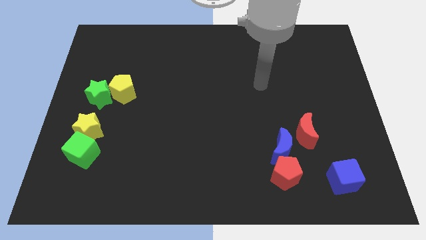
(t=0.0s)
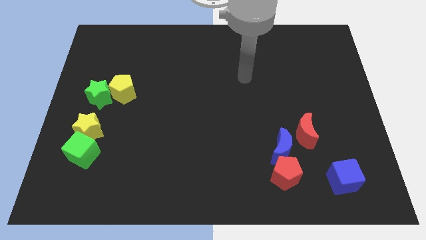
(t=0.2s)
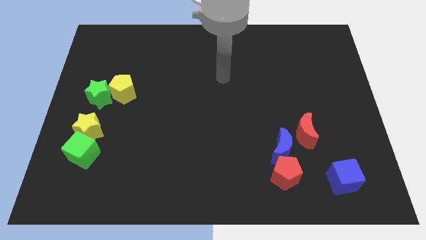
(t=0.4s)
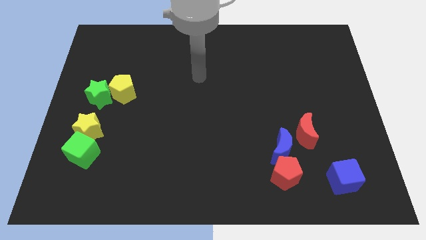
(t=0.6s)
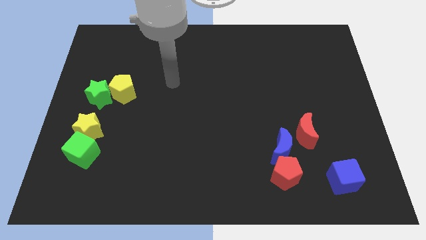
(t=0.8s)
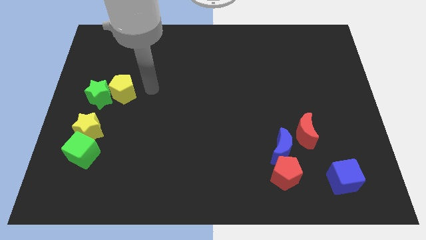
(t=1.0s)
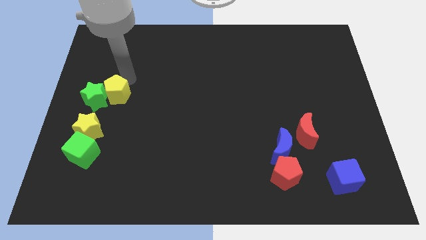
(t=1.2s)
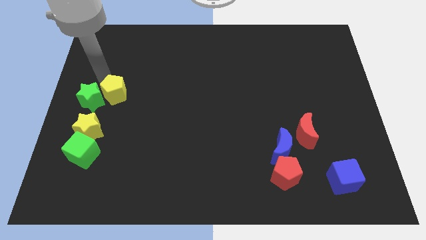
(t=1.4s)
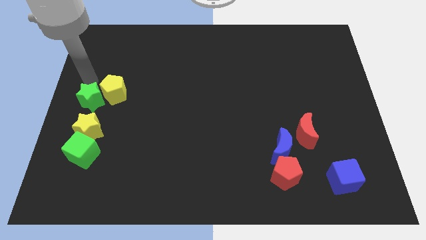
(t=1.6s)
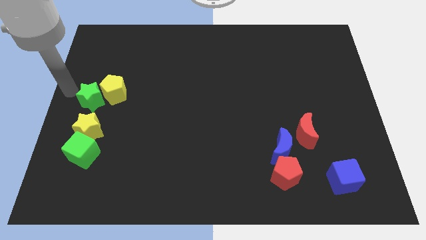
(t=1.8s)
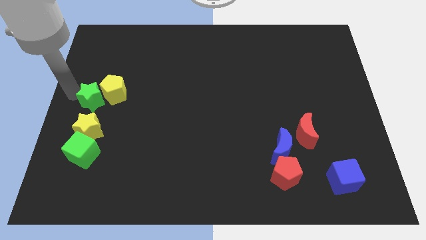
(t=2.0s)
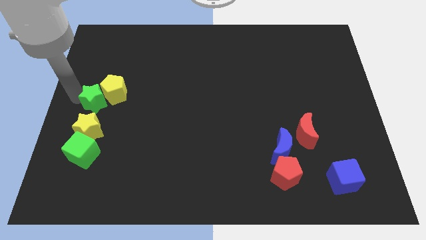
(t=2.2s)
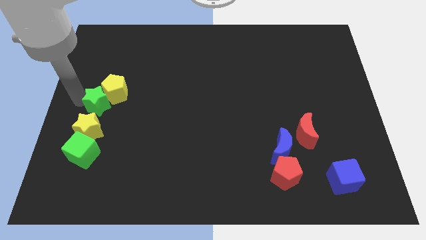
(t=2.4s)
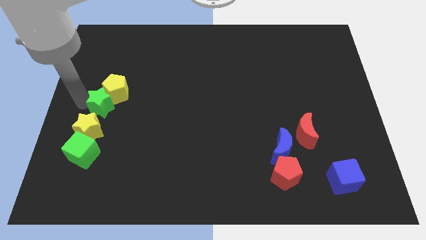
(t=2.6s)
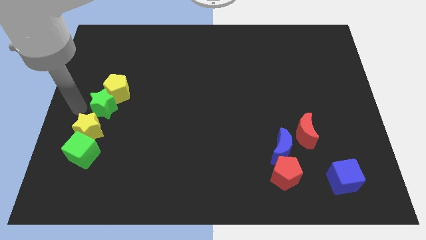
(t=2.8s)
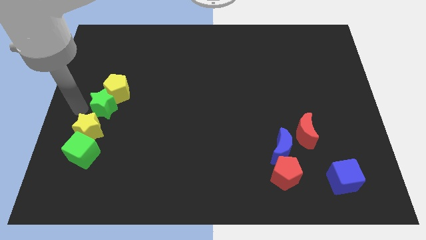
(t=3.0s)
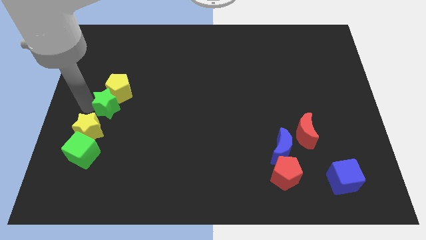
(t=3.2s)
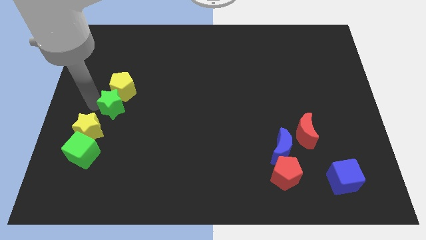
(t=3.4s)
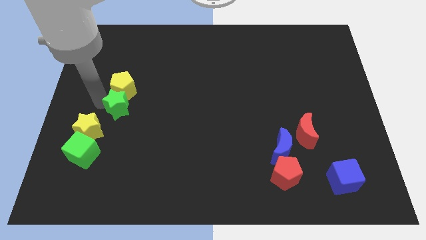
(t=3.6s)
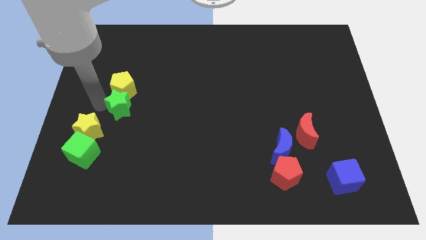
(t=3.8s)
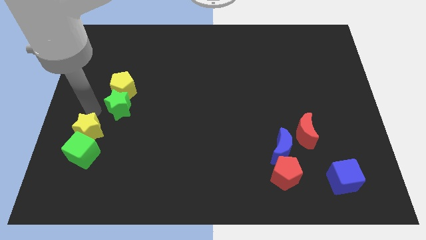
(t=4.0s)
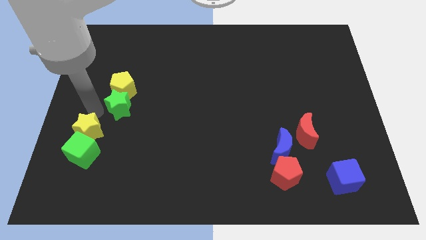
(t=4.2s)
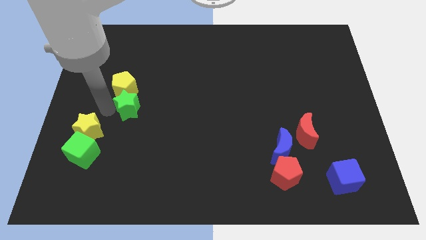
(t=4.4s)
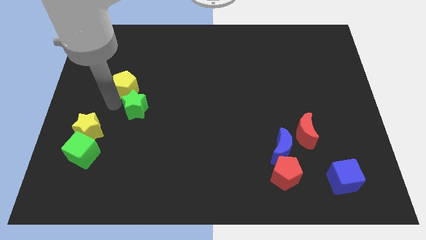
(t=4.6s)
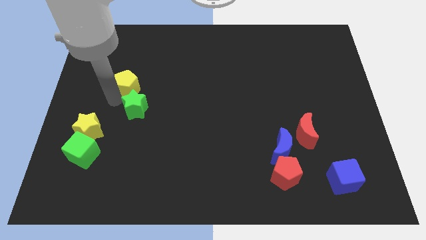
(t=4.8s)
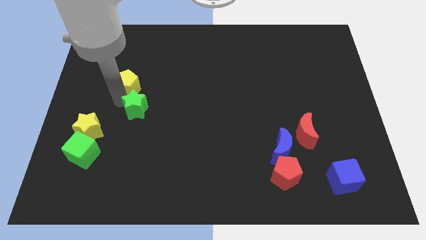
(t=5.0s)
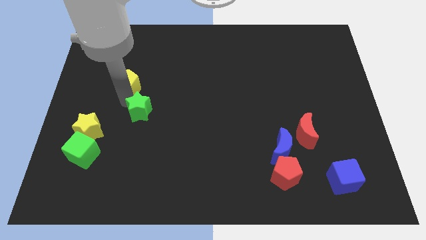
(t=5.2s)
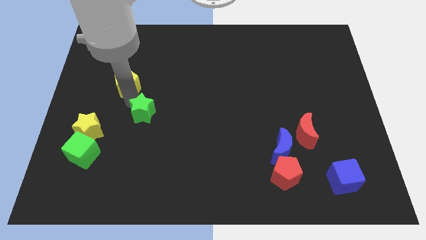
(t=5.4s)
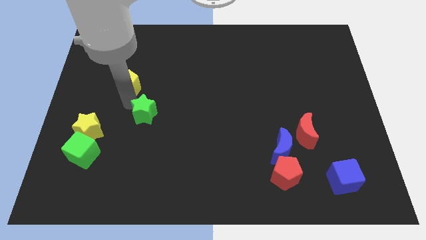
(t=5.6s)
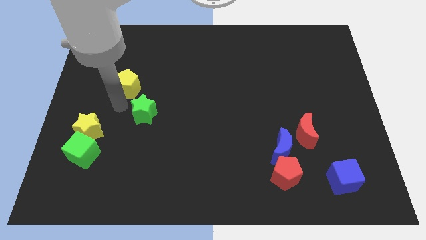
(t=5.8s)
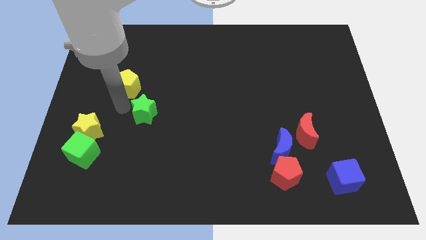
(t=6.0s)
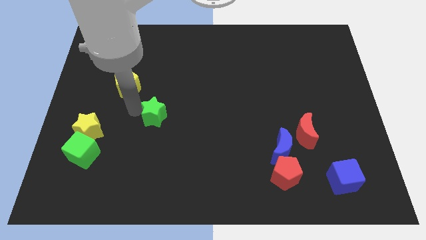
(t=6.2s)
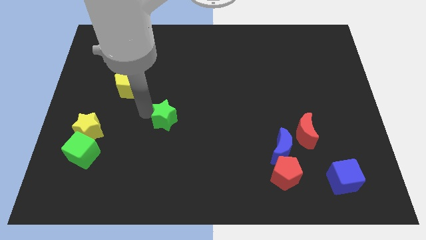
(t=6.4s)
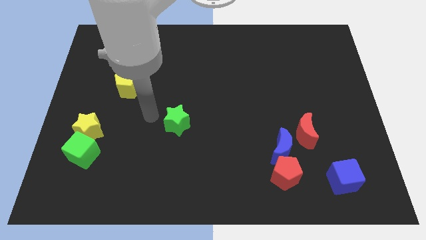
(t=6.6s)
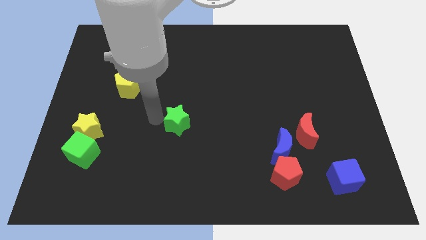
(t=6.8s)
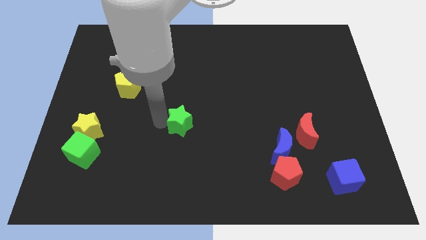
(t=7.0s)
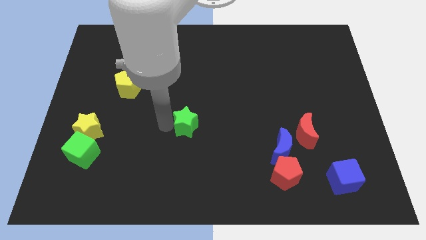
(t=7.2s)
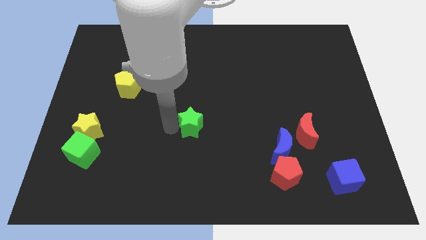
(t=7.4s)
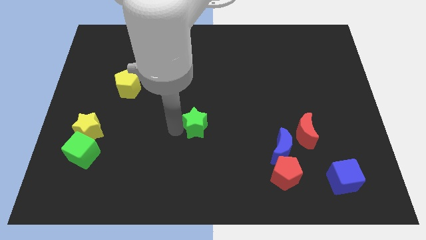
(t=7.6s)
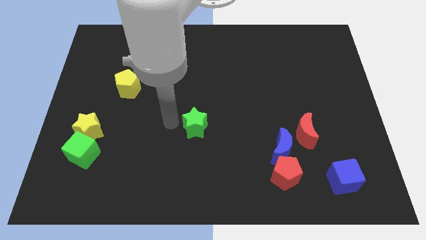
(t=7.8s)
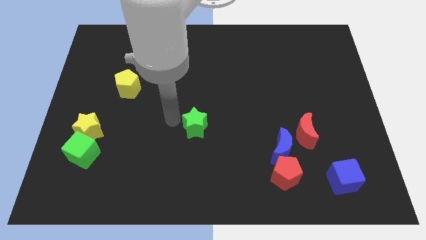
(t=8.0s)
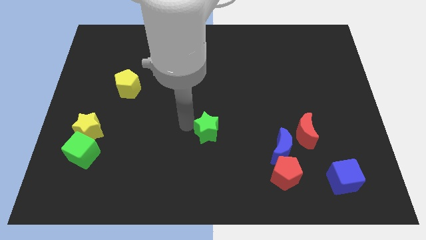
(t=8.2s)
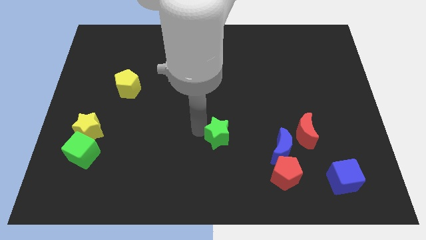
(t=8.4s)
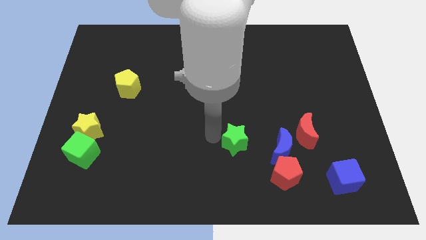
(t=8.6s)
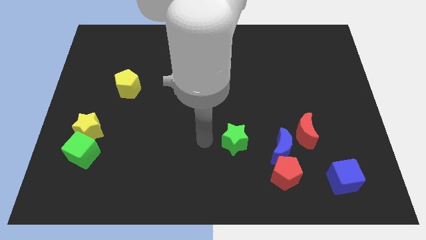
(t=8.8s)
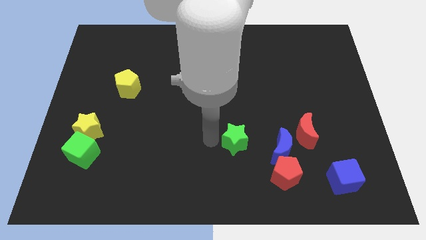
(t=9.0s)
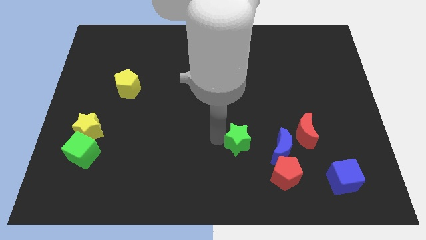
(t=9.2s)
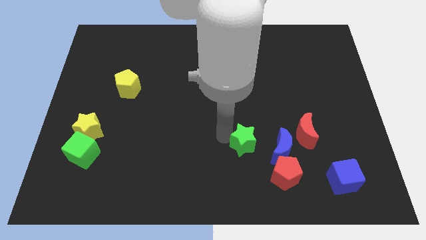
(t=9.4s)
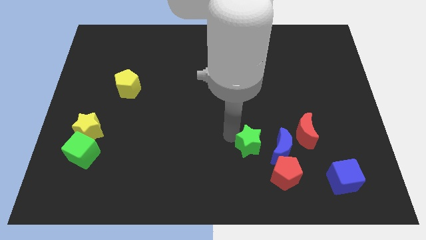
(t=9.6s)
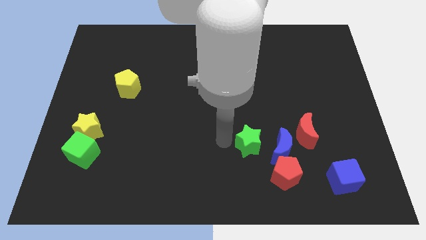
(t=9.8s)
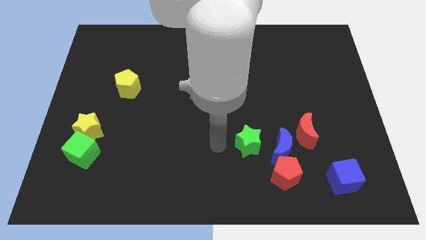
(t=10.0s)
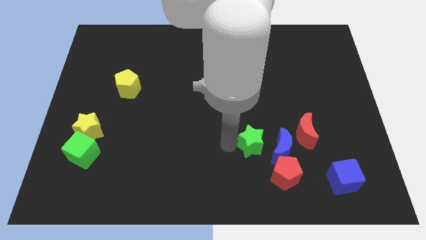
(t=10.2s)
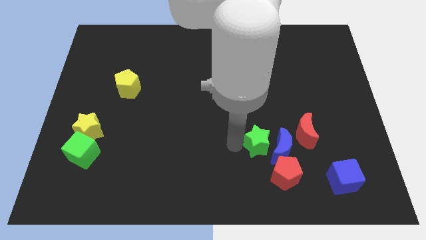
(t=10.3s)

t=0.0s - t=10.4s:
put the green star close to the blue moon

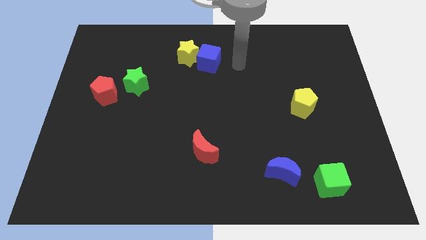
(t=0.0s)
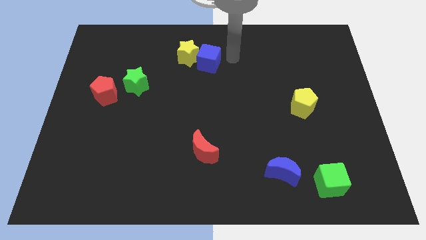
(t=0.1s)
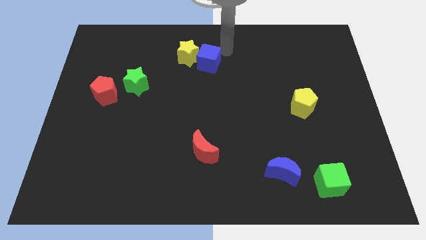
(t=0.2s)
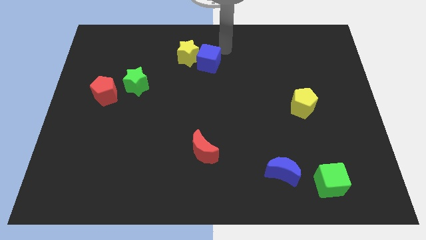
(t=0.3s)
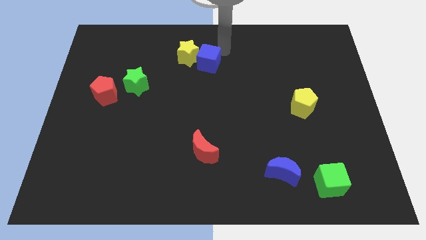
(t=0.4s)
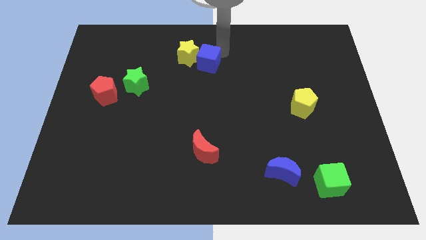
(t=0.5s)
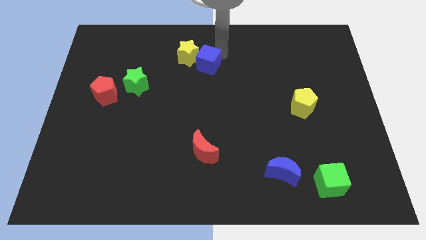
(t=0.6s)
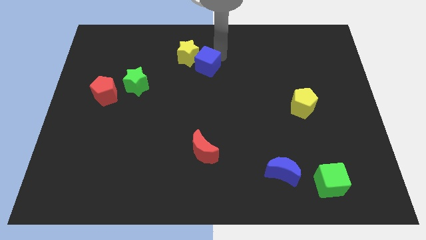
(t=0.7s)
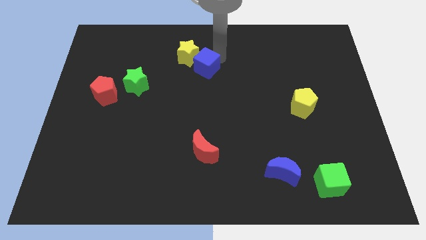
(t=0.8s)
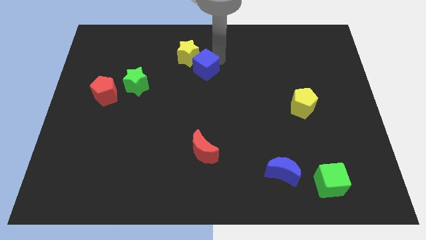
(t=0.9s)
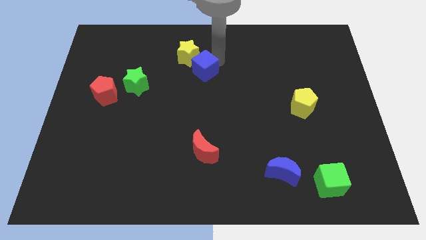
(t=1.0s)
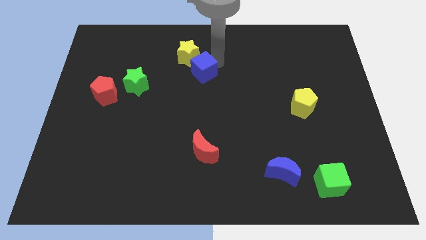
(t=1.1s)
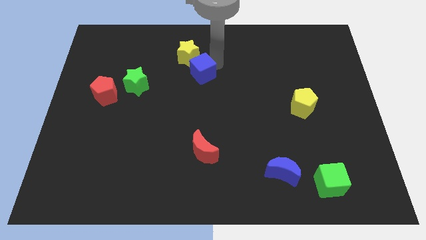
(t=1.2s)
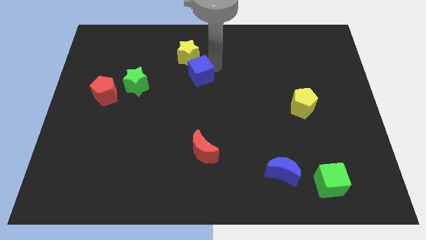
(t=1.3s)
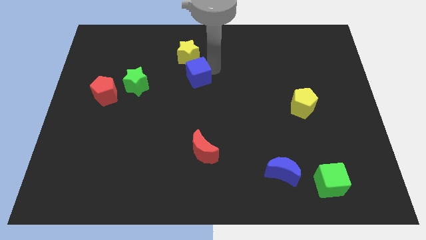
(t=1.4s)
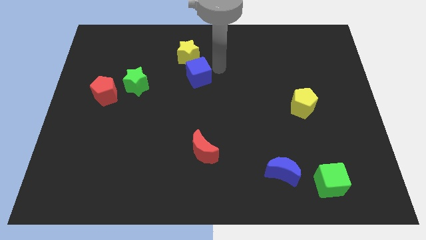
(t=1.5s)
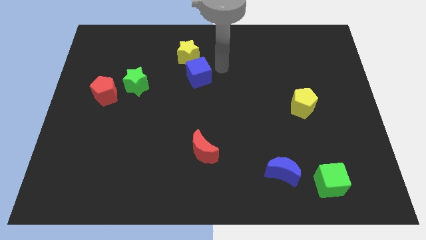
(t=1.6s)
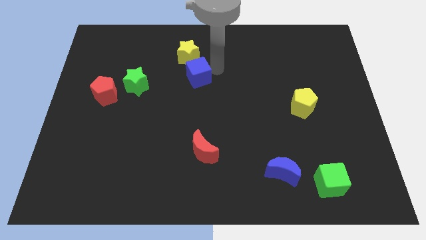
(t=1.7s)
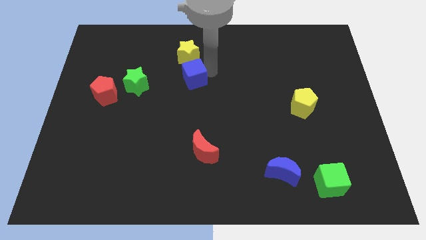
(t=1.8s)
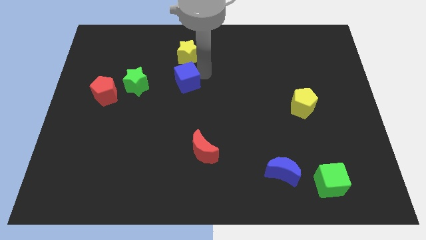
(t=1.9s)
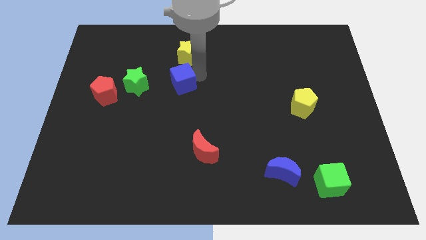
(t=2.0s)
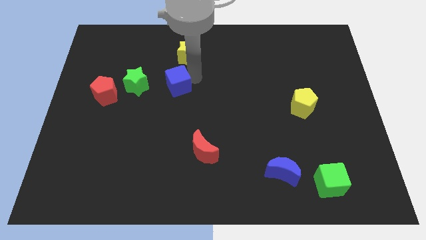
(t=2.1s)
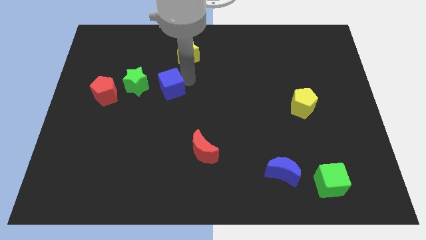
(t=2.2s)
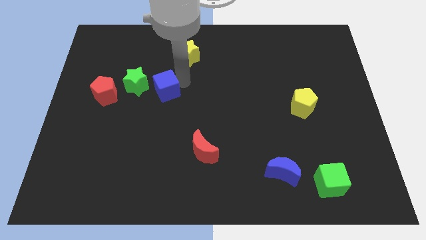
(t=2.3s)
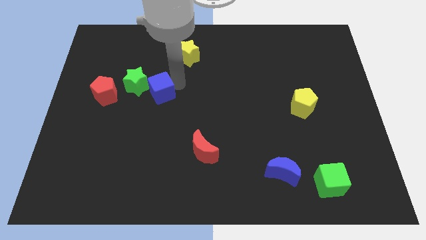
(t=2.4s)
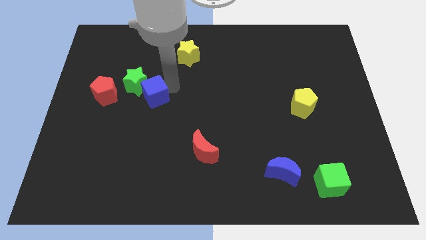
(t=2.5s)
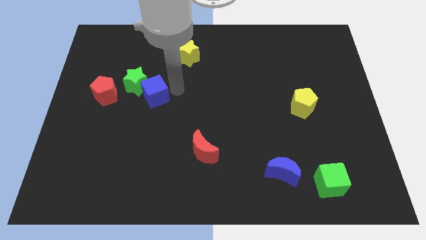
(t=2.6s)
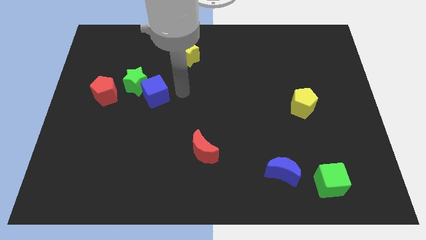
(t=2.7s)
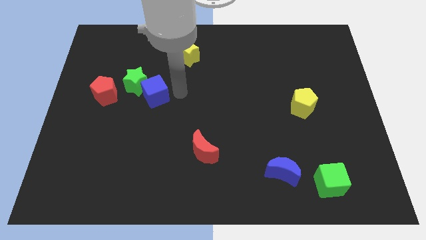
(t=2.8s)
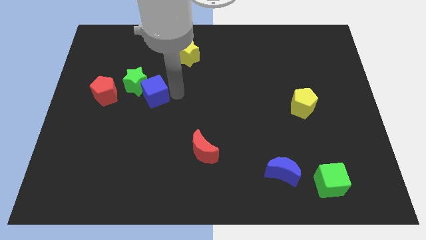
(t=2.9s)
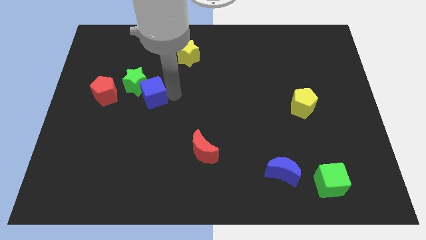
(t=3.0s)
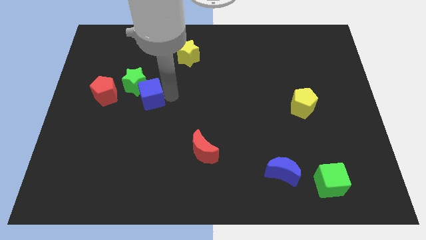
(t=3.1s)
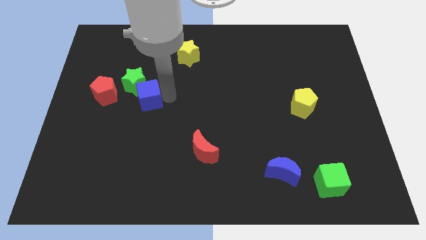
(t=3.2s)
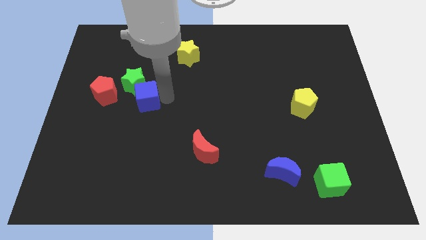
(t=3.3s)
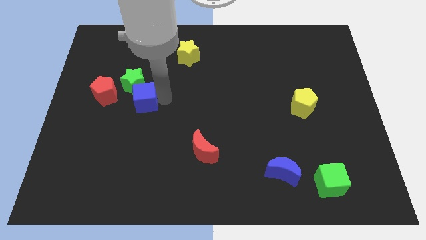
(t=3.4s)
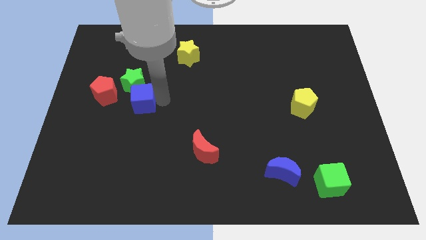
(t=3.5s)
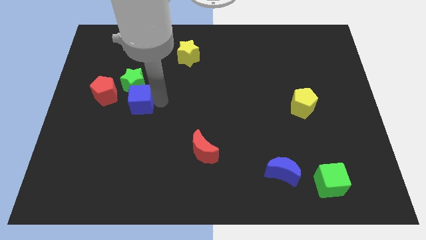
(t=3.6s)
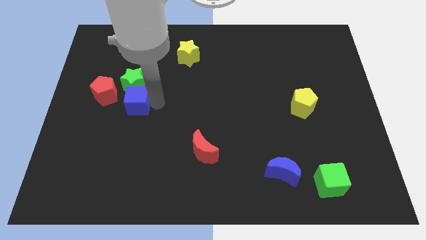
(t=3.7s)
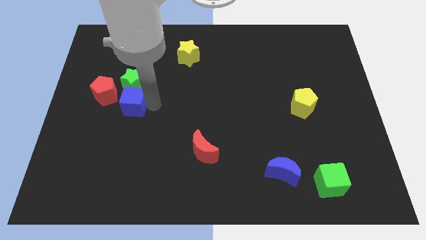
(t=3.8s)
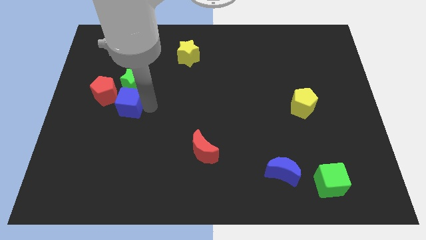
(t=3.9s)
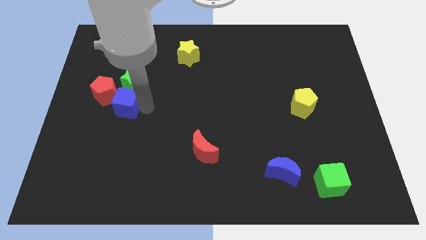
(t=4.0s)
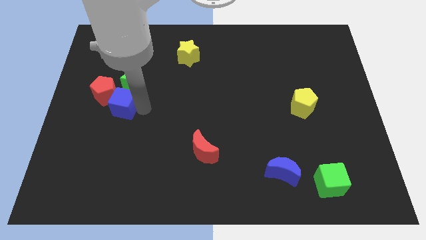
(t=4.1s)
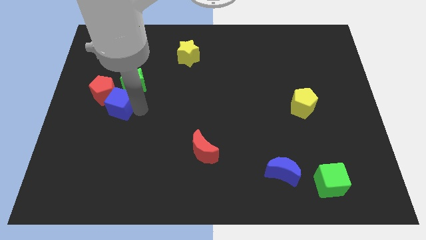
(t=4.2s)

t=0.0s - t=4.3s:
put the blue cube to the red pentagon
